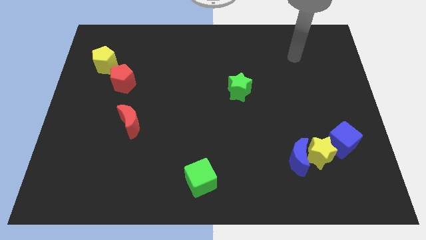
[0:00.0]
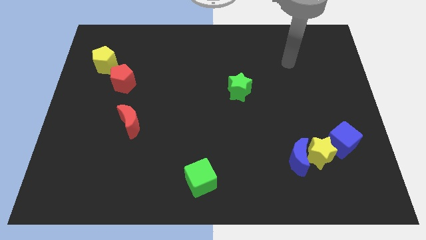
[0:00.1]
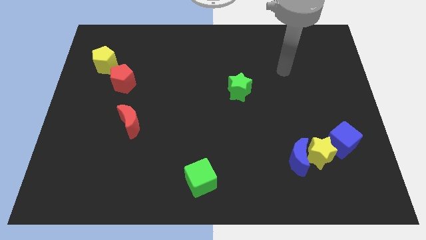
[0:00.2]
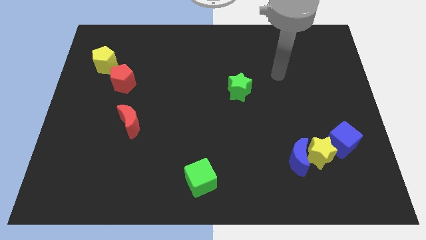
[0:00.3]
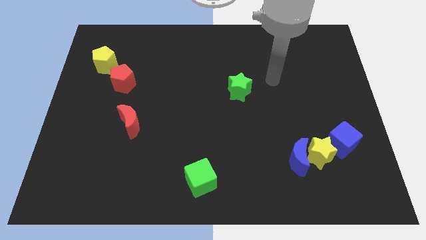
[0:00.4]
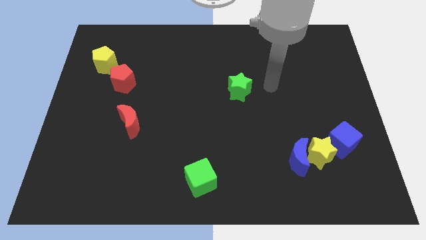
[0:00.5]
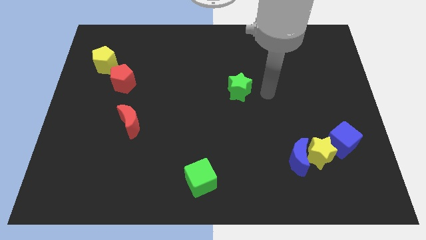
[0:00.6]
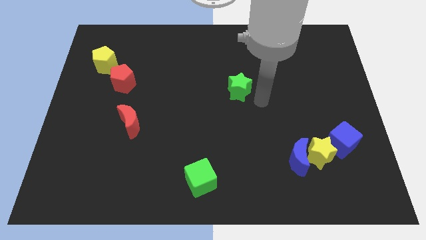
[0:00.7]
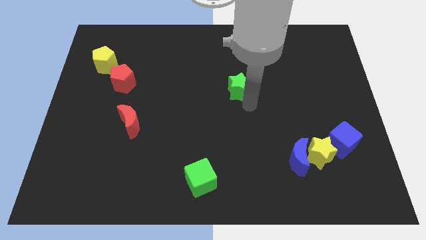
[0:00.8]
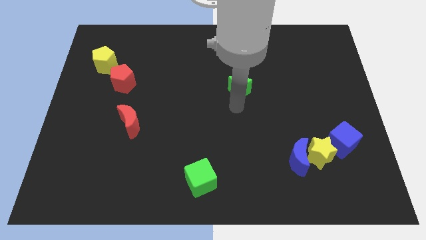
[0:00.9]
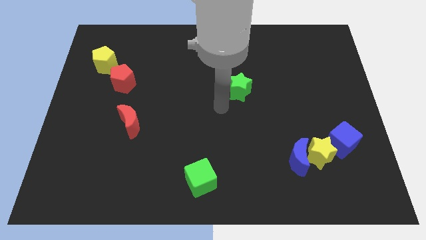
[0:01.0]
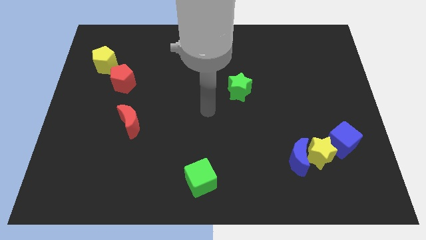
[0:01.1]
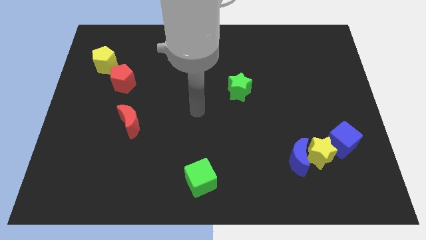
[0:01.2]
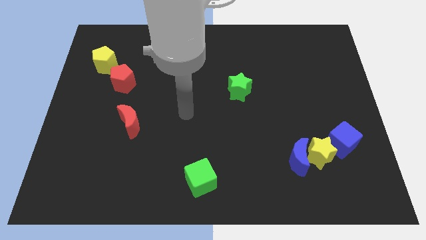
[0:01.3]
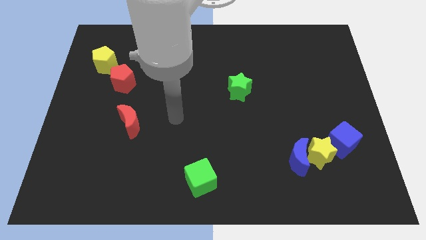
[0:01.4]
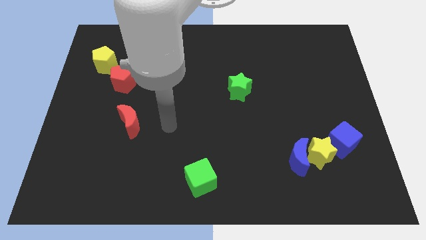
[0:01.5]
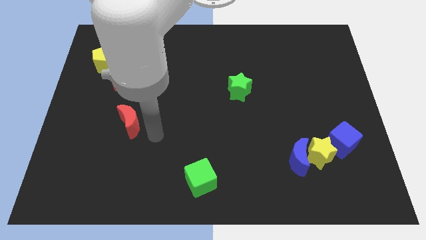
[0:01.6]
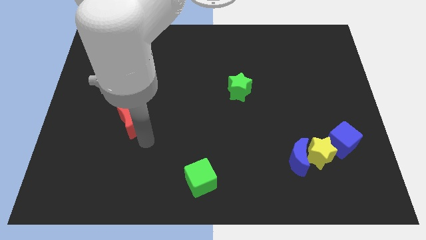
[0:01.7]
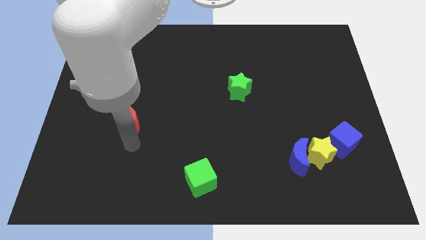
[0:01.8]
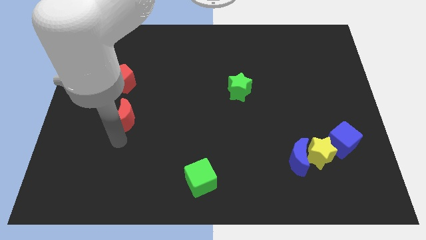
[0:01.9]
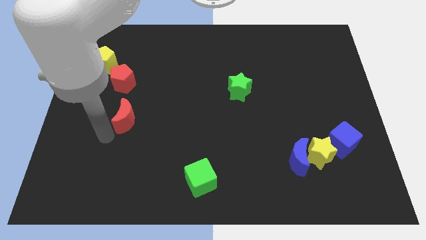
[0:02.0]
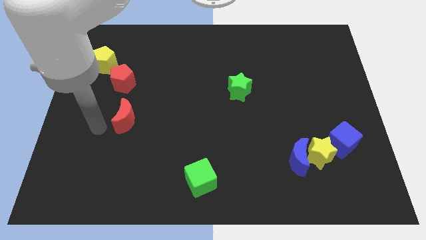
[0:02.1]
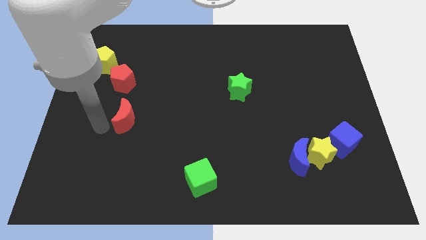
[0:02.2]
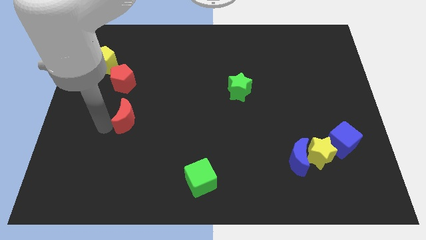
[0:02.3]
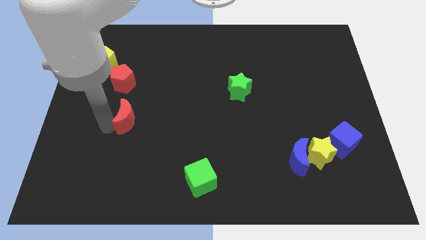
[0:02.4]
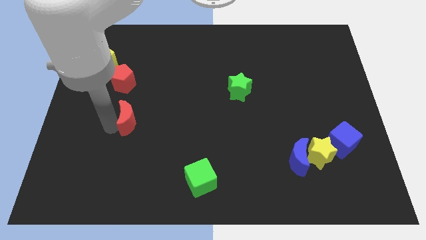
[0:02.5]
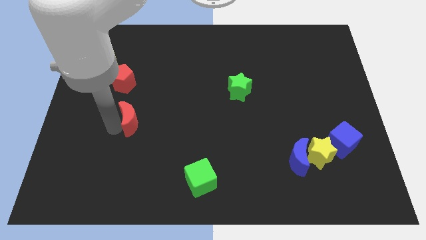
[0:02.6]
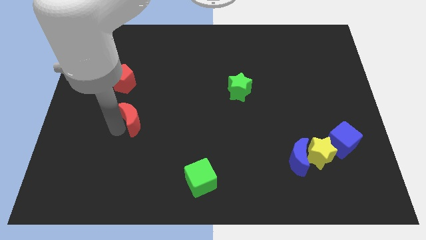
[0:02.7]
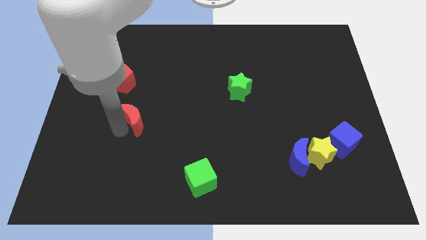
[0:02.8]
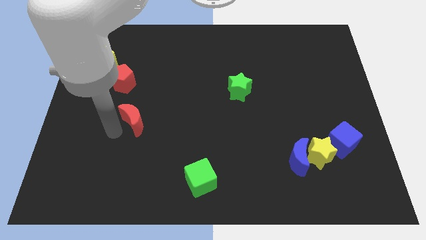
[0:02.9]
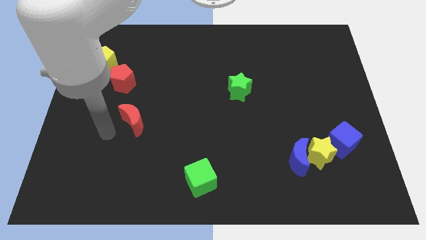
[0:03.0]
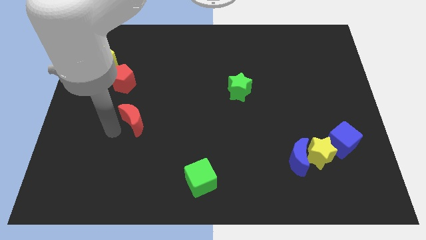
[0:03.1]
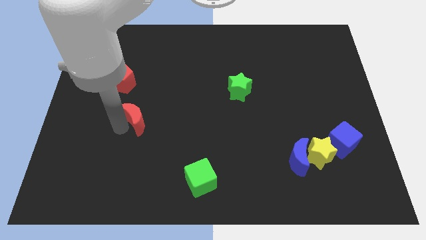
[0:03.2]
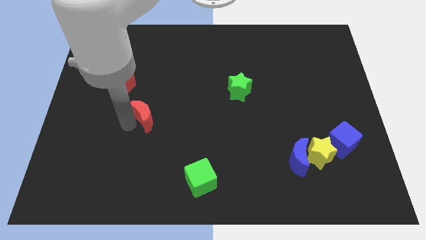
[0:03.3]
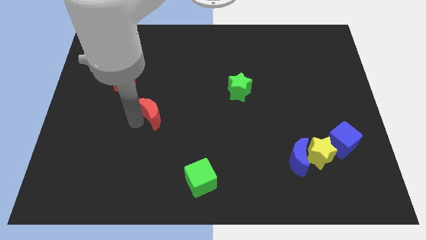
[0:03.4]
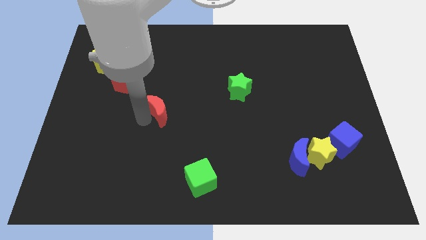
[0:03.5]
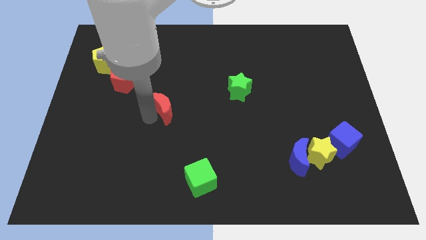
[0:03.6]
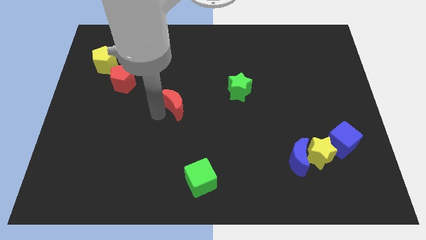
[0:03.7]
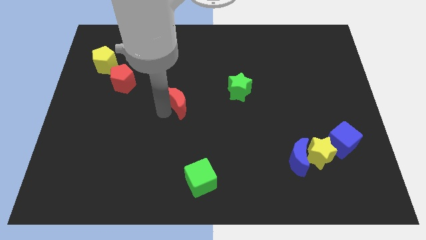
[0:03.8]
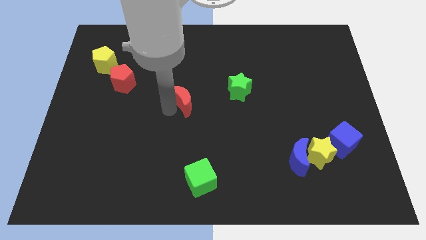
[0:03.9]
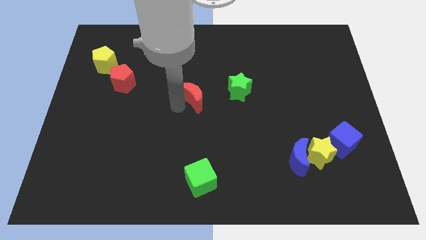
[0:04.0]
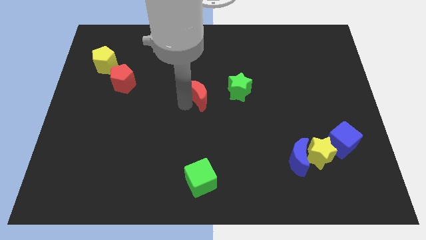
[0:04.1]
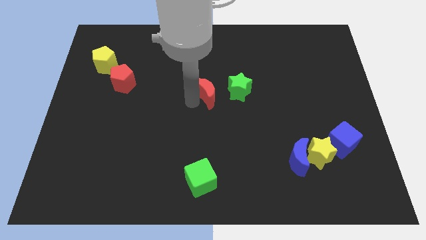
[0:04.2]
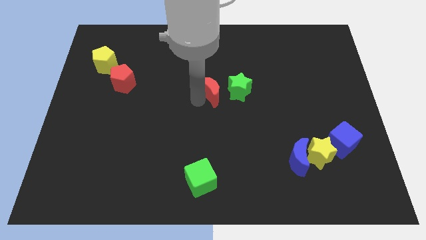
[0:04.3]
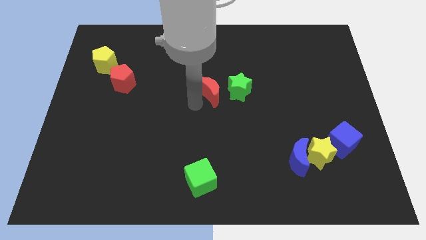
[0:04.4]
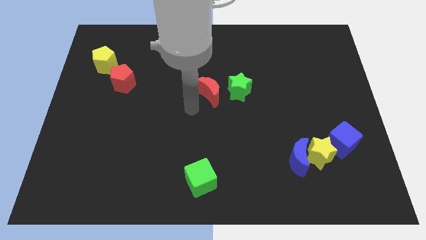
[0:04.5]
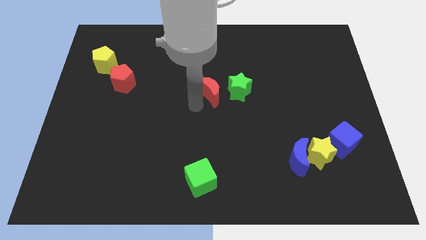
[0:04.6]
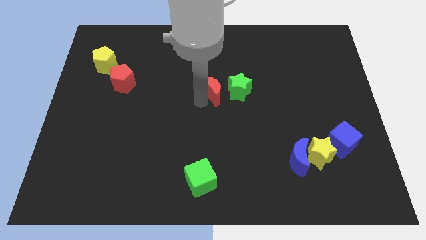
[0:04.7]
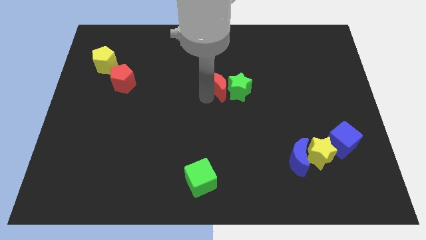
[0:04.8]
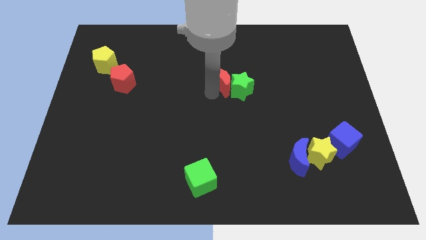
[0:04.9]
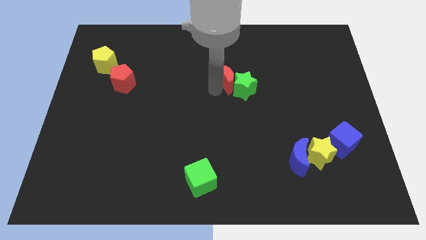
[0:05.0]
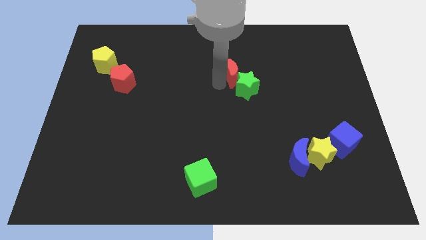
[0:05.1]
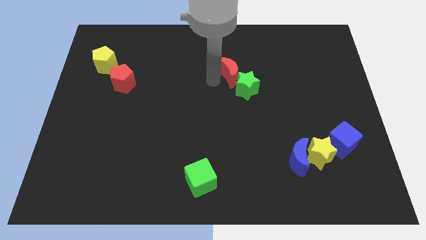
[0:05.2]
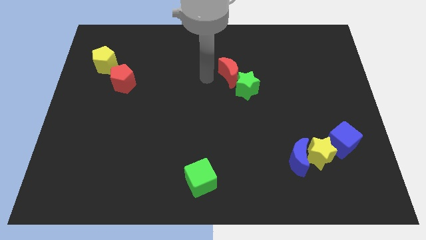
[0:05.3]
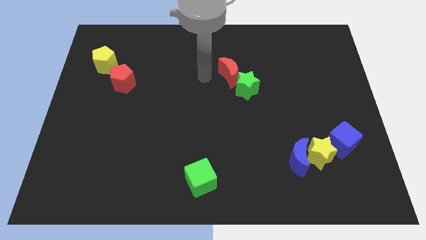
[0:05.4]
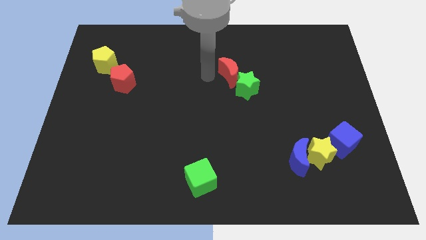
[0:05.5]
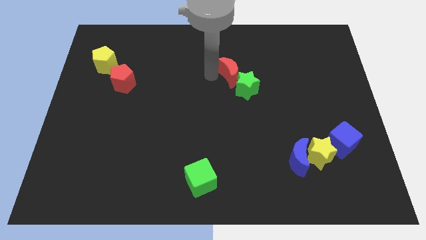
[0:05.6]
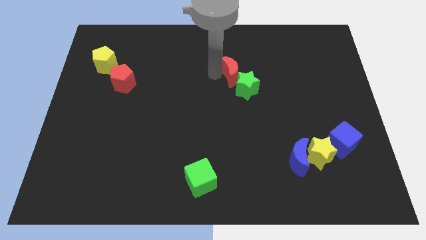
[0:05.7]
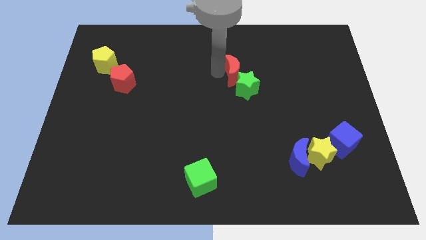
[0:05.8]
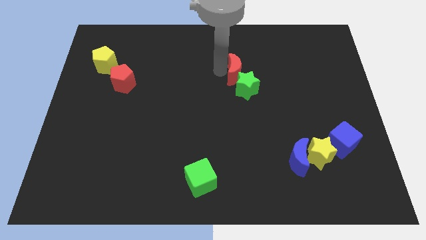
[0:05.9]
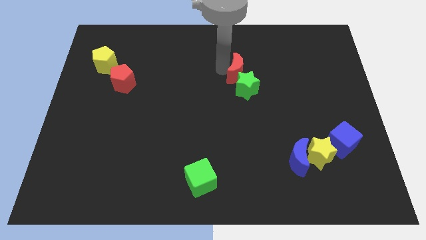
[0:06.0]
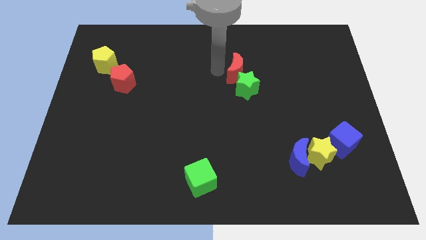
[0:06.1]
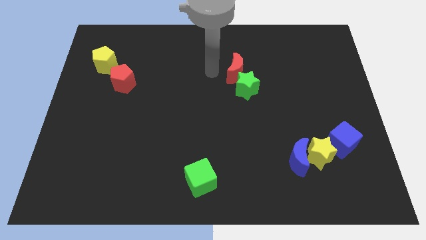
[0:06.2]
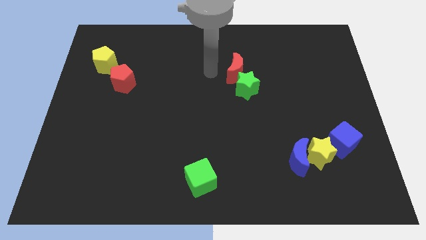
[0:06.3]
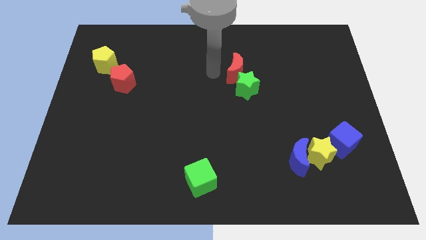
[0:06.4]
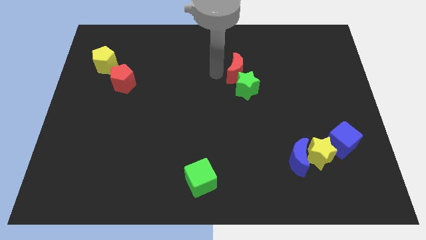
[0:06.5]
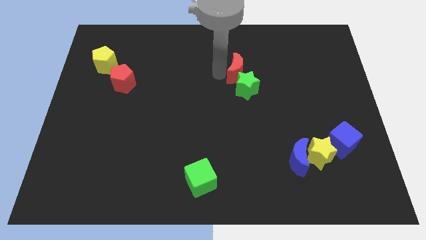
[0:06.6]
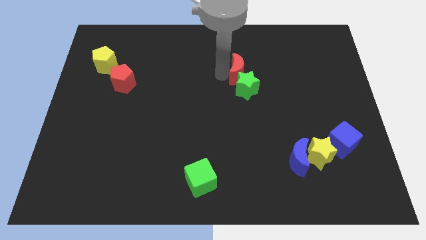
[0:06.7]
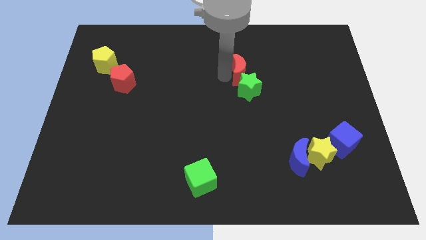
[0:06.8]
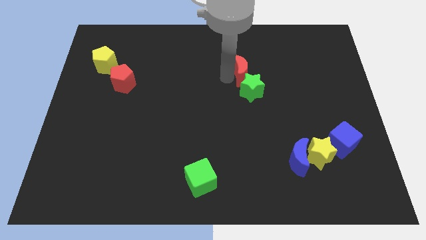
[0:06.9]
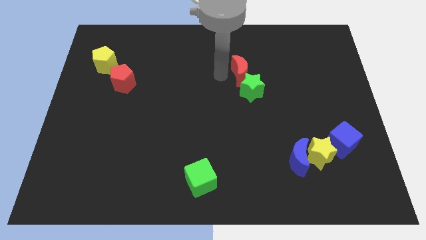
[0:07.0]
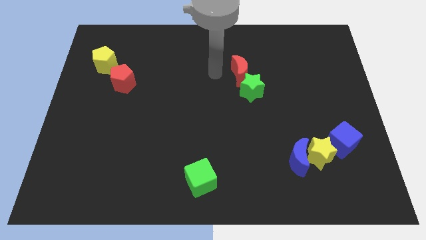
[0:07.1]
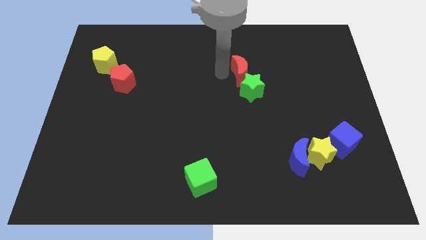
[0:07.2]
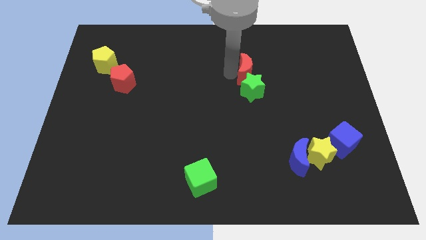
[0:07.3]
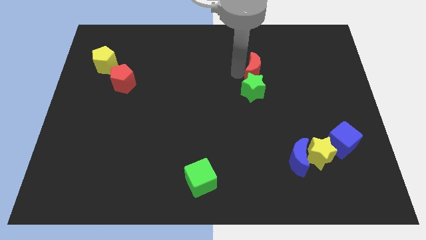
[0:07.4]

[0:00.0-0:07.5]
move the red moon diagonally up and to the right of the green star
